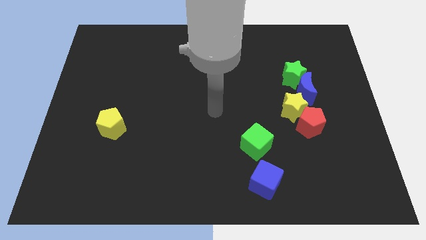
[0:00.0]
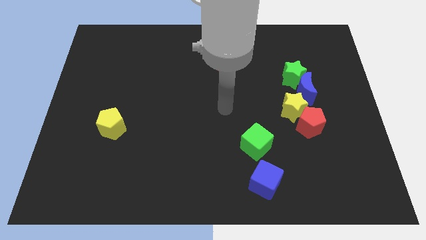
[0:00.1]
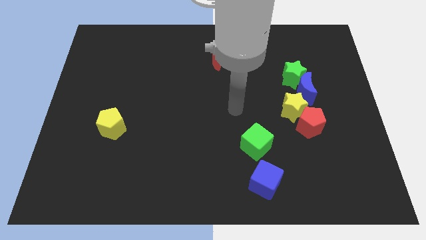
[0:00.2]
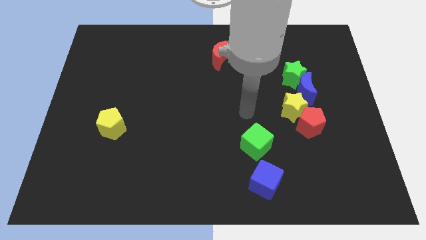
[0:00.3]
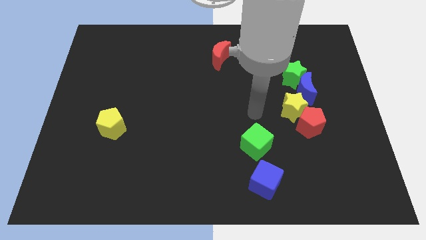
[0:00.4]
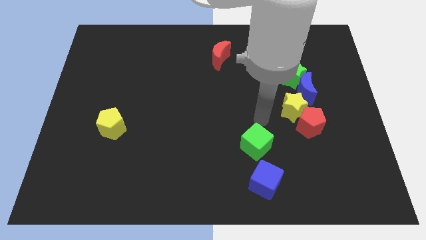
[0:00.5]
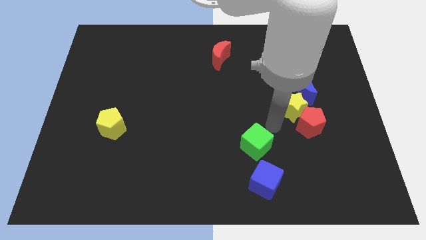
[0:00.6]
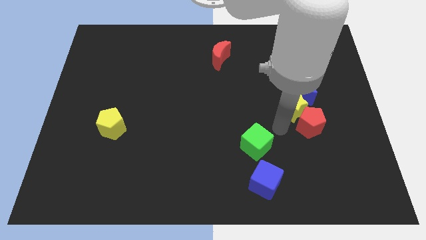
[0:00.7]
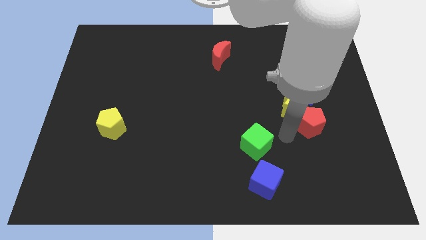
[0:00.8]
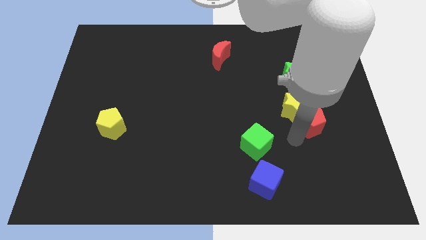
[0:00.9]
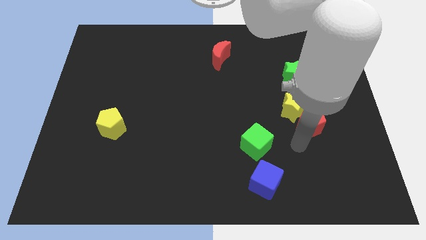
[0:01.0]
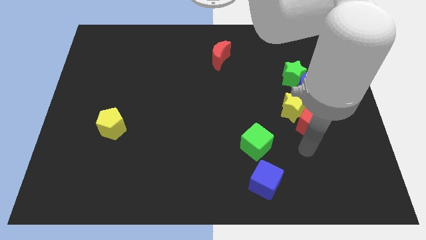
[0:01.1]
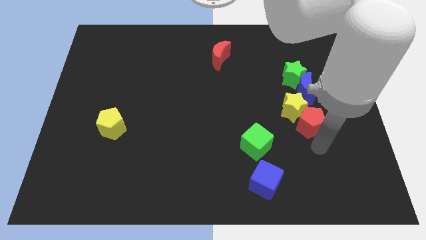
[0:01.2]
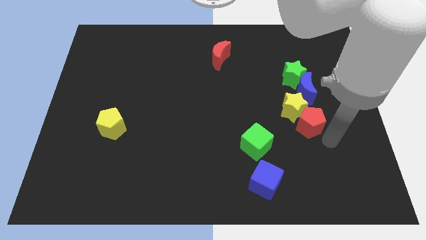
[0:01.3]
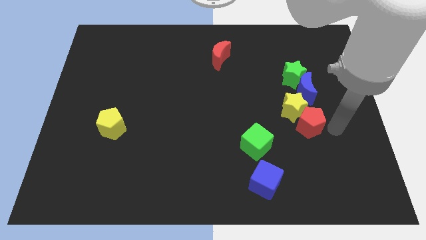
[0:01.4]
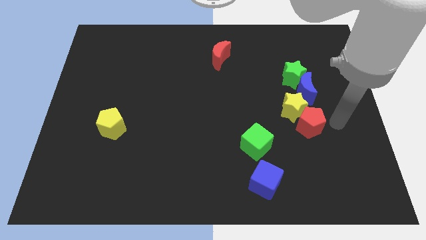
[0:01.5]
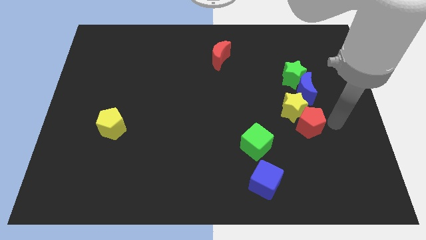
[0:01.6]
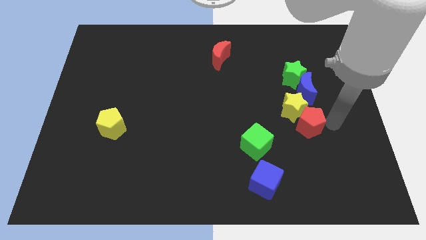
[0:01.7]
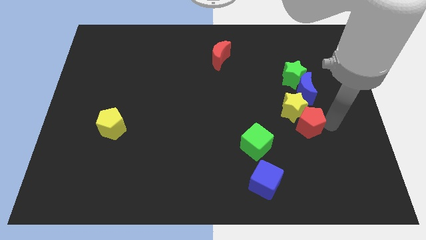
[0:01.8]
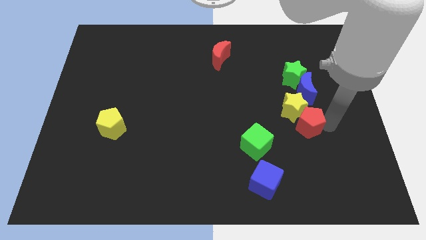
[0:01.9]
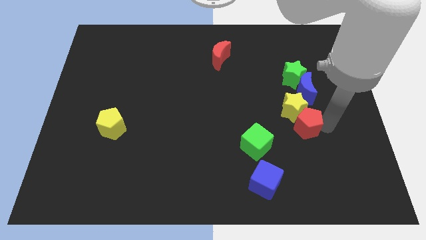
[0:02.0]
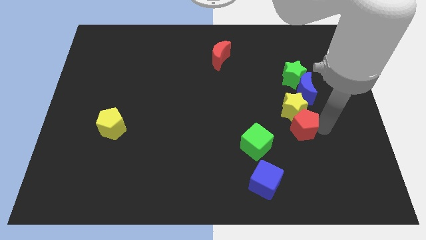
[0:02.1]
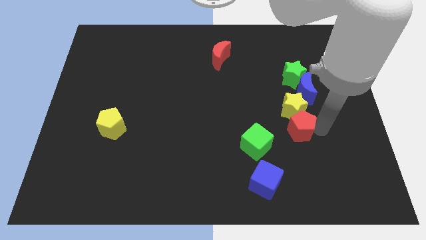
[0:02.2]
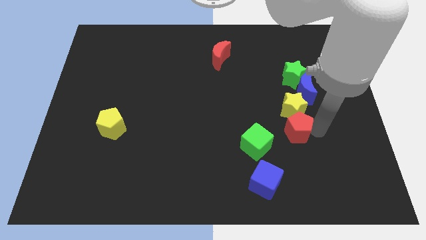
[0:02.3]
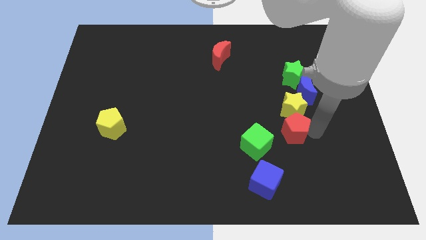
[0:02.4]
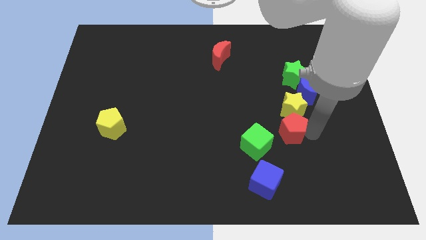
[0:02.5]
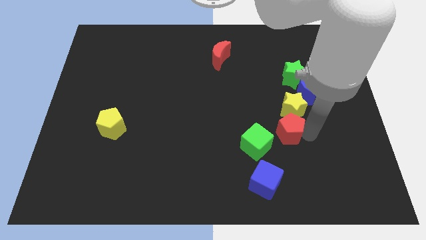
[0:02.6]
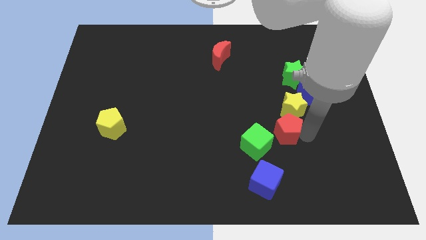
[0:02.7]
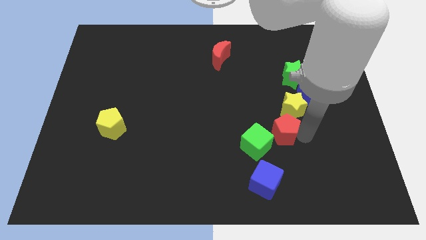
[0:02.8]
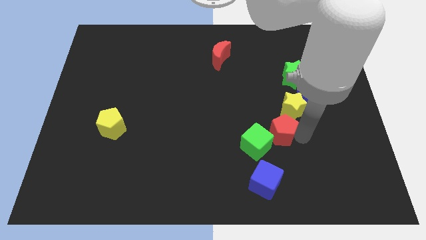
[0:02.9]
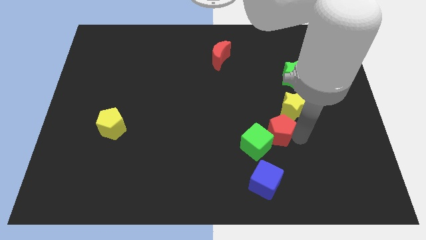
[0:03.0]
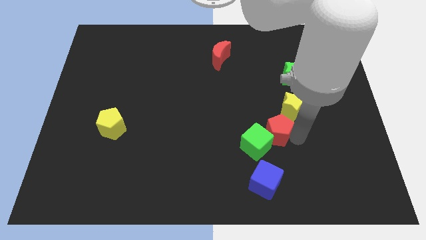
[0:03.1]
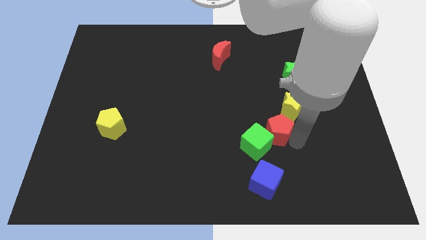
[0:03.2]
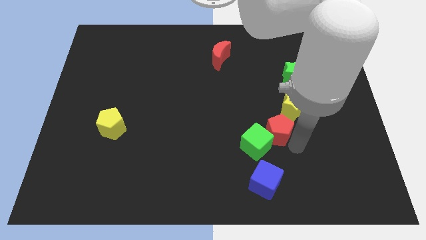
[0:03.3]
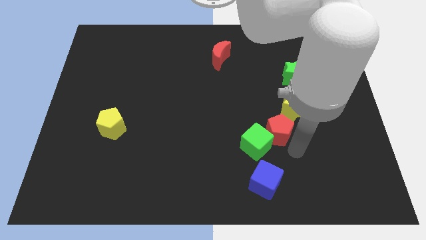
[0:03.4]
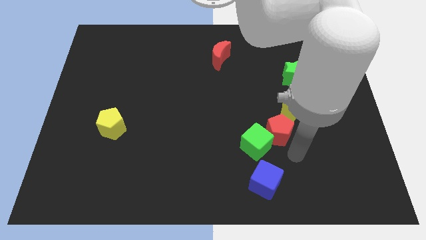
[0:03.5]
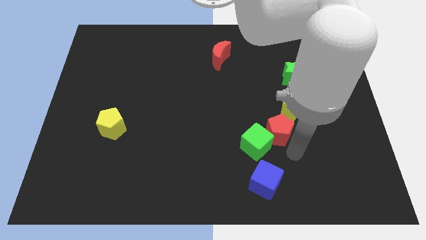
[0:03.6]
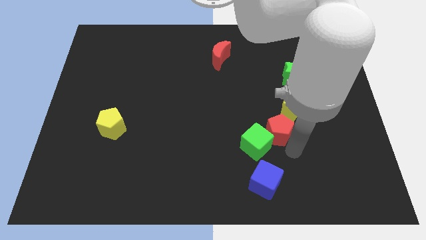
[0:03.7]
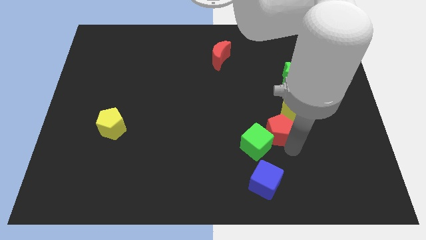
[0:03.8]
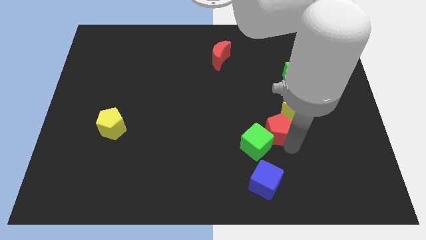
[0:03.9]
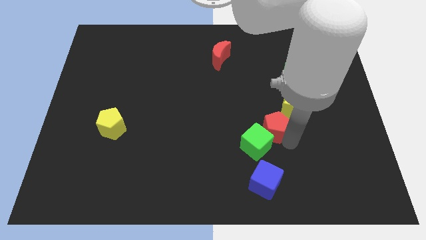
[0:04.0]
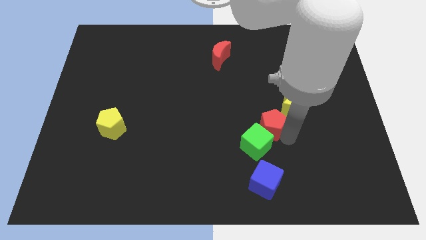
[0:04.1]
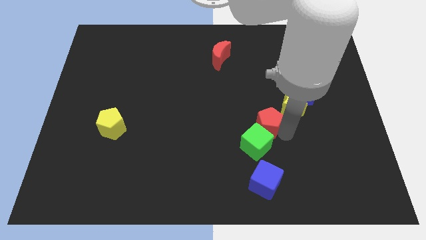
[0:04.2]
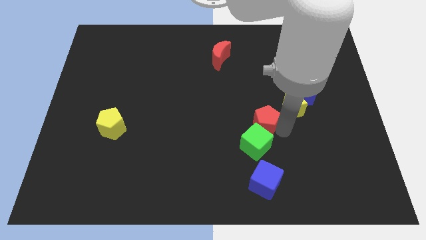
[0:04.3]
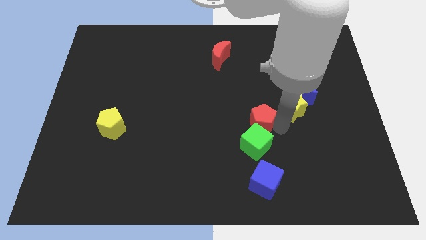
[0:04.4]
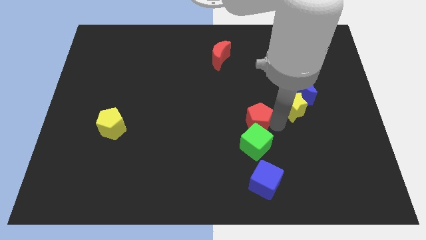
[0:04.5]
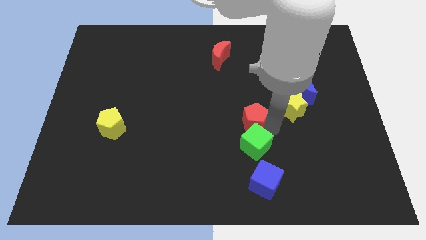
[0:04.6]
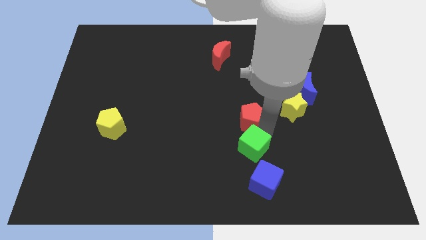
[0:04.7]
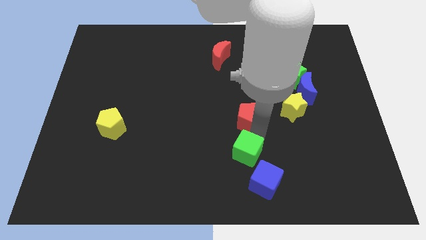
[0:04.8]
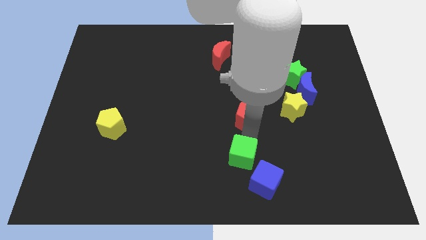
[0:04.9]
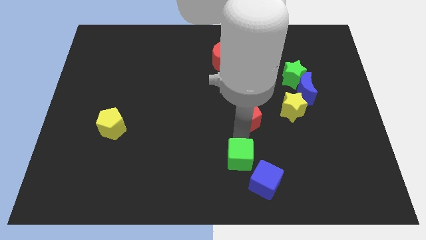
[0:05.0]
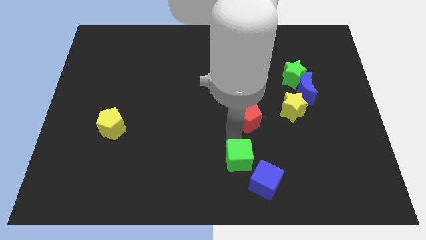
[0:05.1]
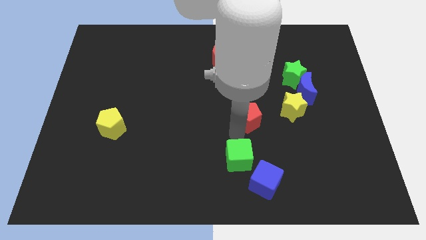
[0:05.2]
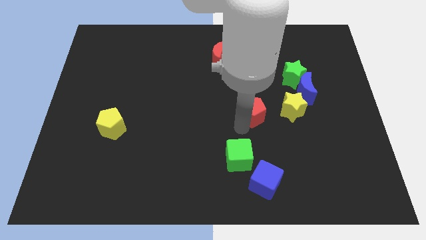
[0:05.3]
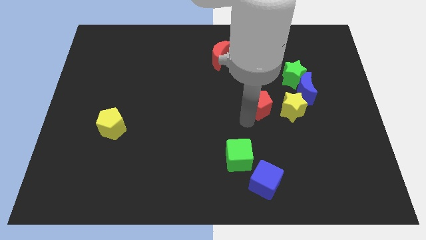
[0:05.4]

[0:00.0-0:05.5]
put the red pentagon to the top left of the yellow star

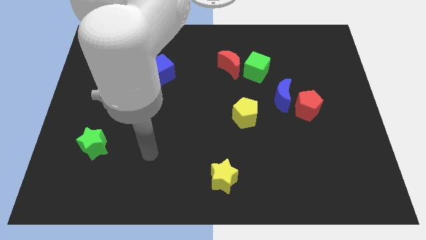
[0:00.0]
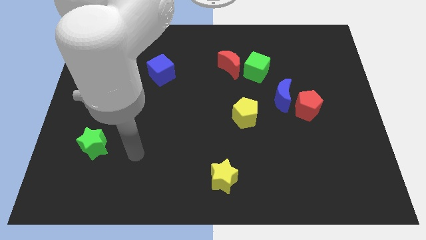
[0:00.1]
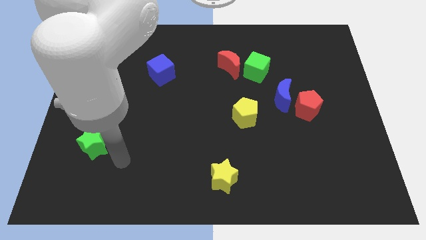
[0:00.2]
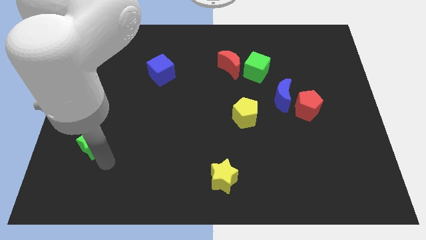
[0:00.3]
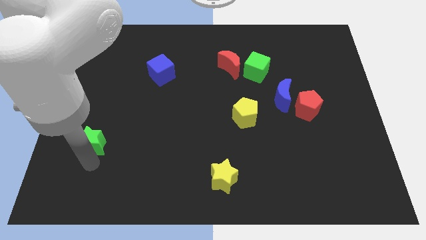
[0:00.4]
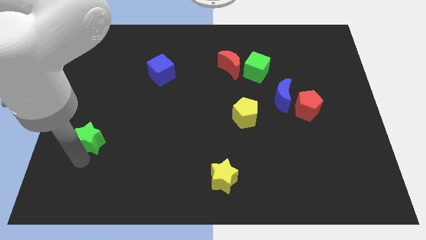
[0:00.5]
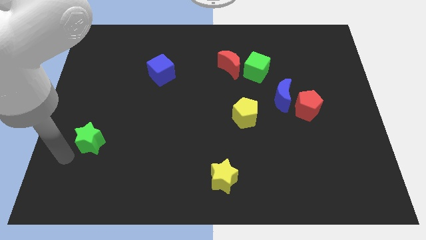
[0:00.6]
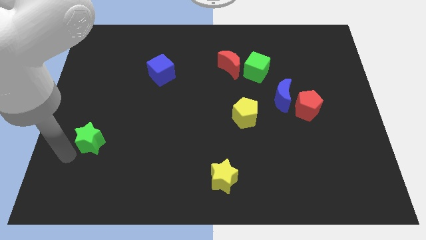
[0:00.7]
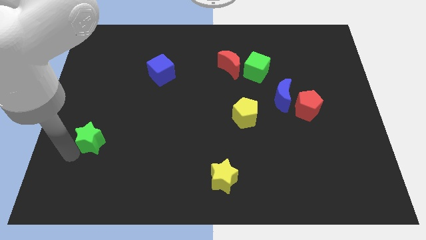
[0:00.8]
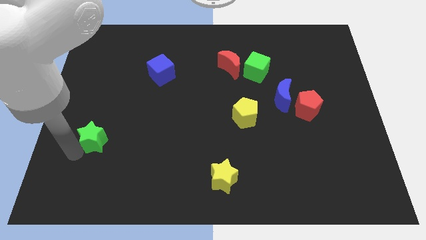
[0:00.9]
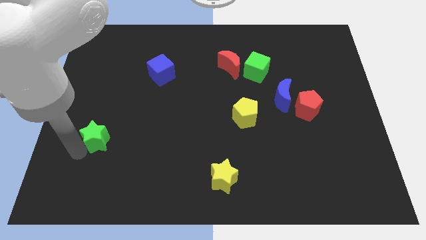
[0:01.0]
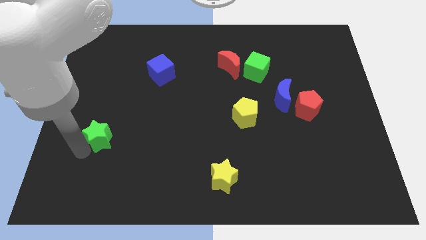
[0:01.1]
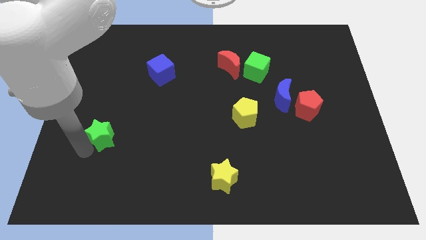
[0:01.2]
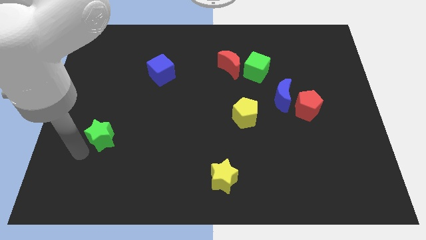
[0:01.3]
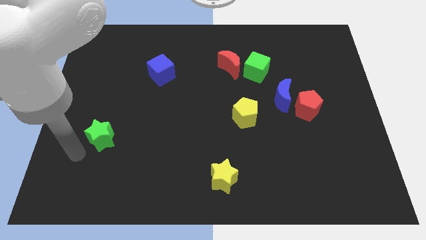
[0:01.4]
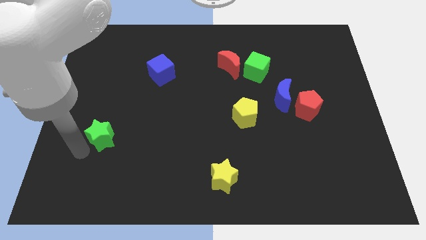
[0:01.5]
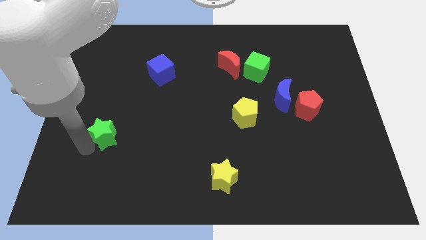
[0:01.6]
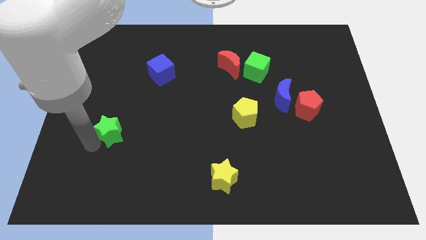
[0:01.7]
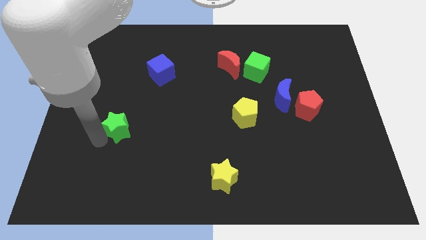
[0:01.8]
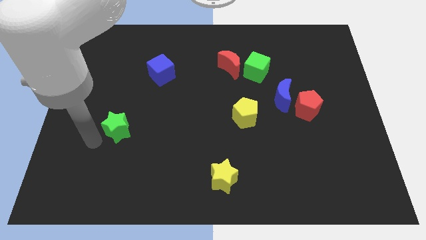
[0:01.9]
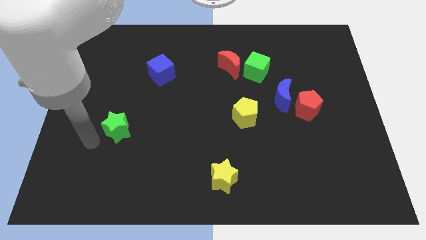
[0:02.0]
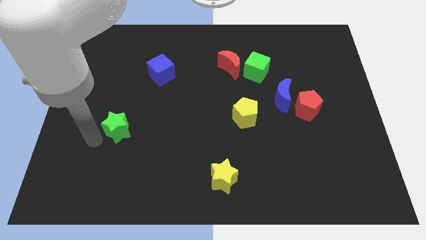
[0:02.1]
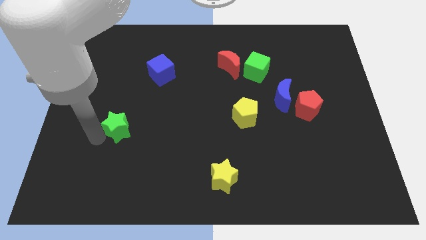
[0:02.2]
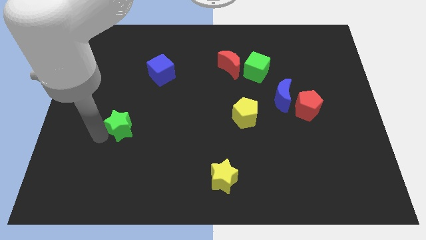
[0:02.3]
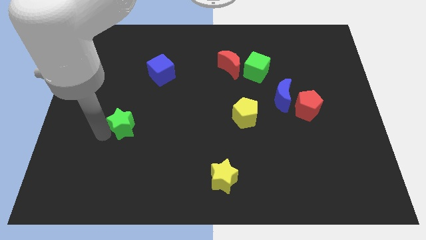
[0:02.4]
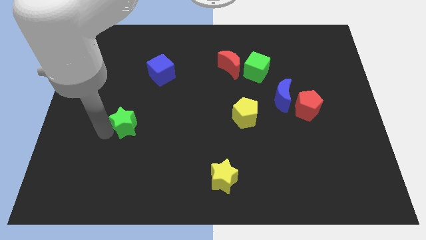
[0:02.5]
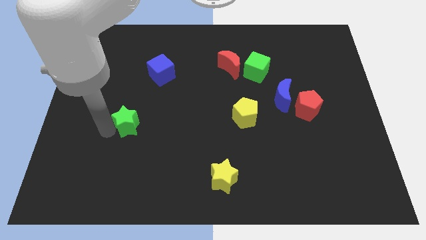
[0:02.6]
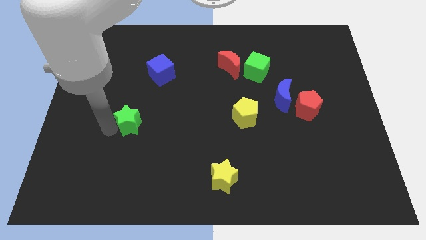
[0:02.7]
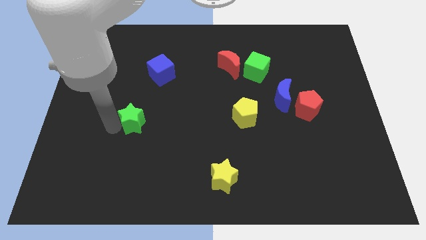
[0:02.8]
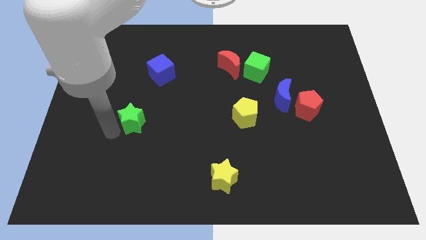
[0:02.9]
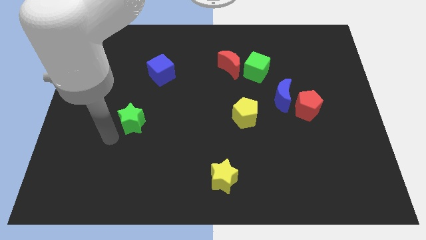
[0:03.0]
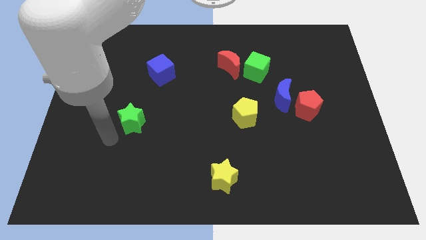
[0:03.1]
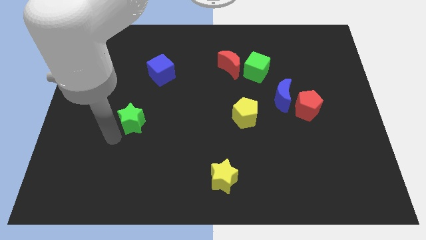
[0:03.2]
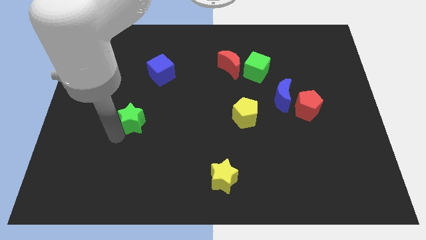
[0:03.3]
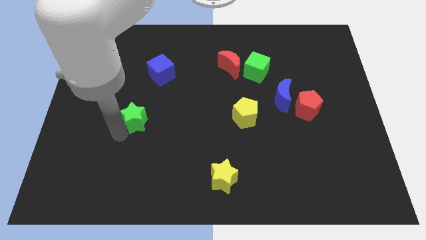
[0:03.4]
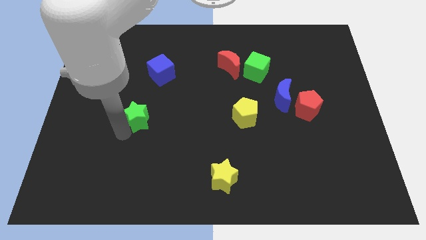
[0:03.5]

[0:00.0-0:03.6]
push the green star to the bottom side of the blue cube
